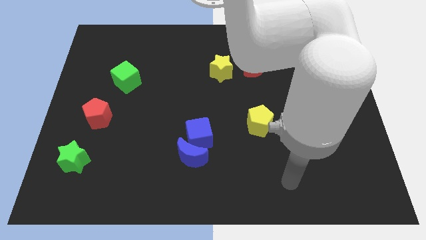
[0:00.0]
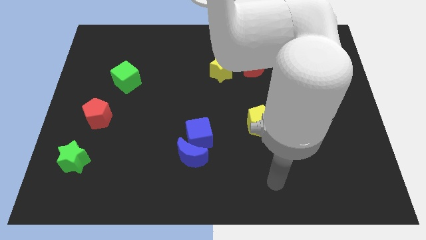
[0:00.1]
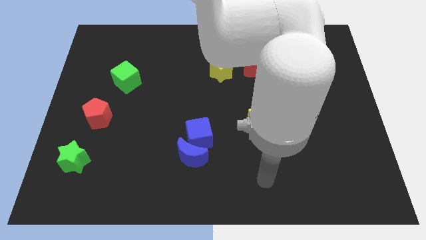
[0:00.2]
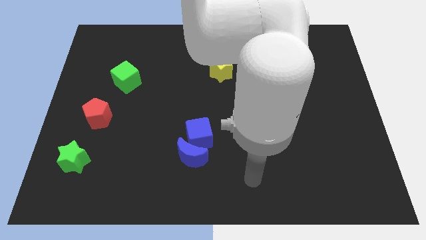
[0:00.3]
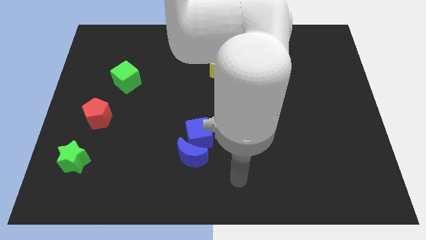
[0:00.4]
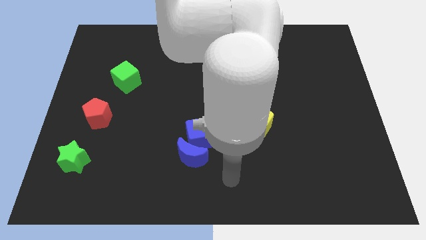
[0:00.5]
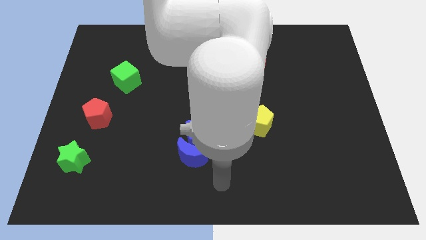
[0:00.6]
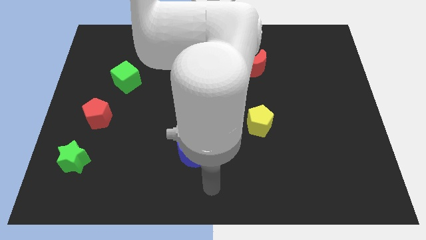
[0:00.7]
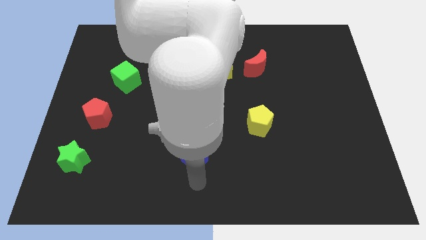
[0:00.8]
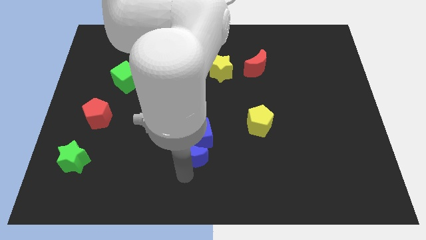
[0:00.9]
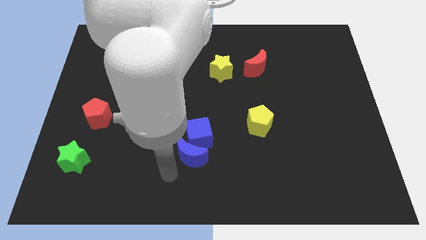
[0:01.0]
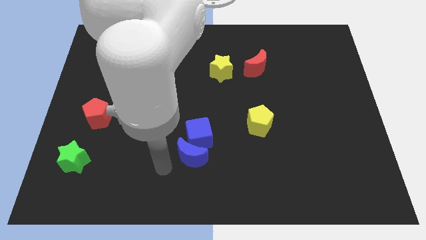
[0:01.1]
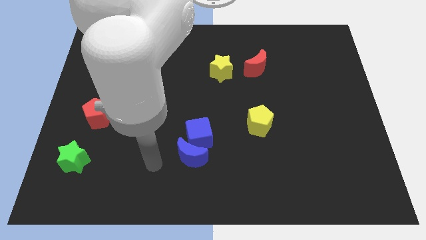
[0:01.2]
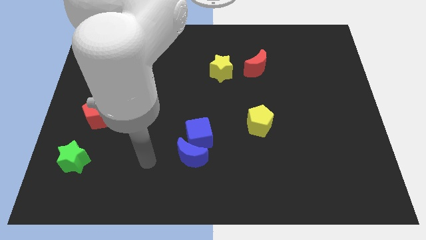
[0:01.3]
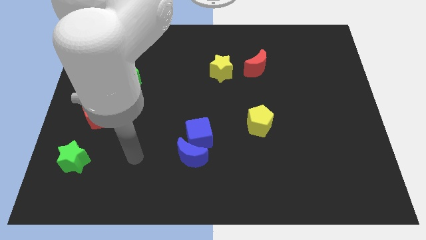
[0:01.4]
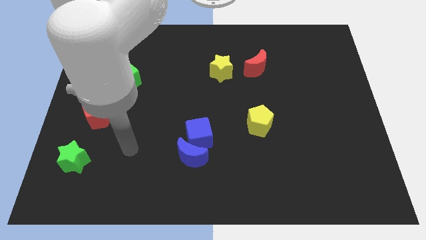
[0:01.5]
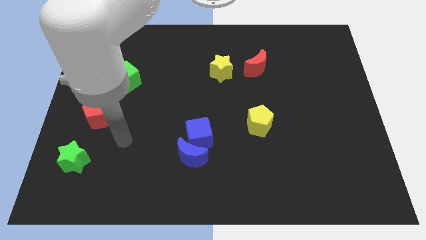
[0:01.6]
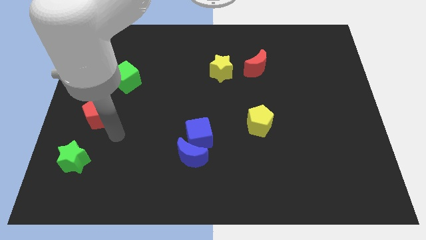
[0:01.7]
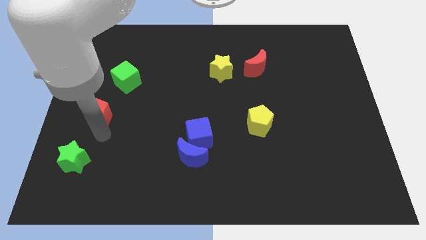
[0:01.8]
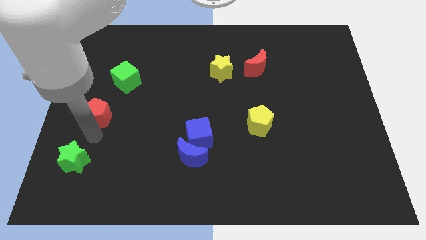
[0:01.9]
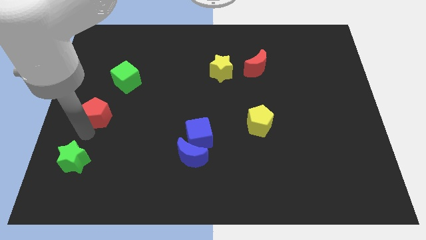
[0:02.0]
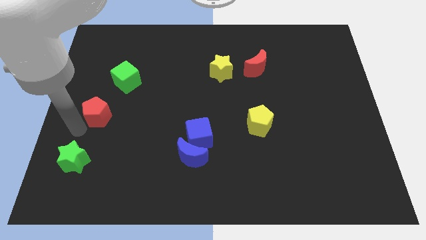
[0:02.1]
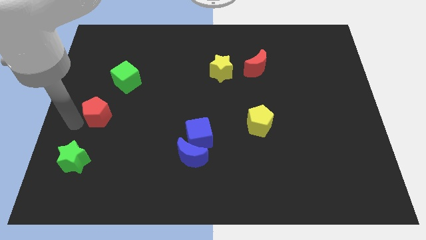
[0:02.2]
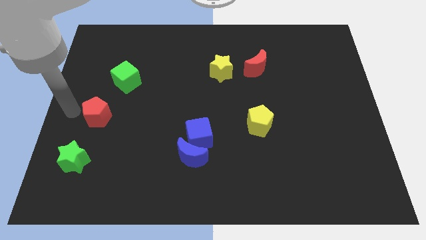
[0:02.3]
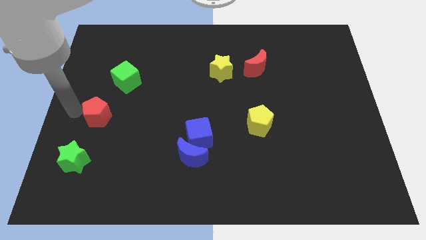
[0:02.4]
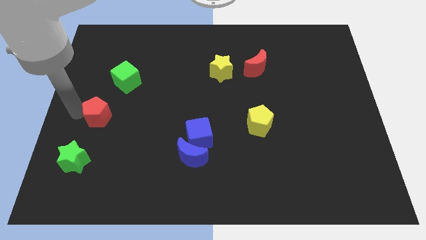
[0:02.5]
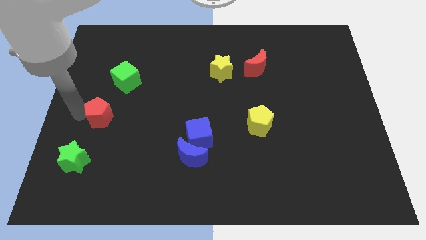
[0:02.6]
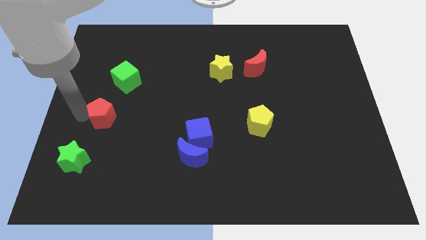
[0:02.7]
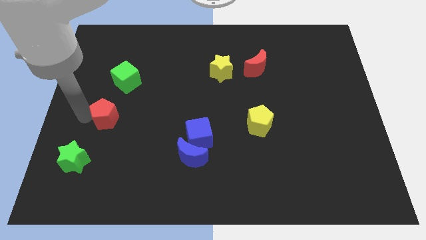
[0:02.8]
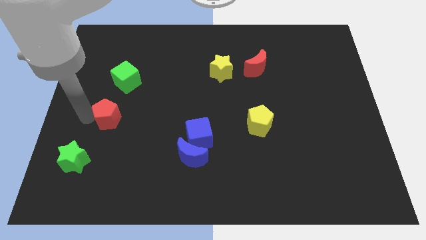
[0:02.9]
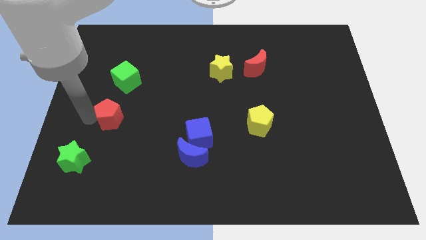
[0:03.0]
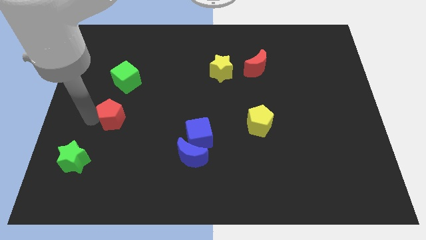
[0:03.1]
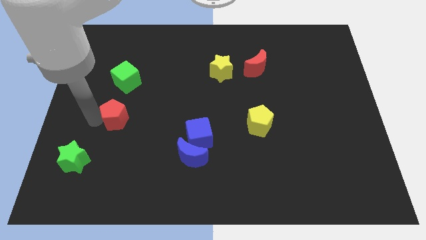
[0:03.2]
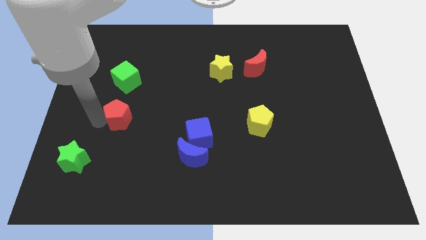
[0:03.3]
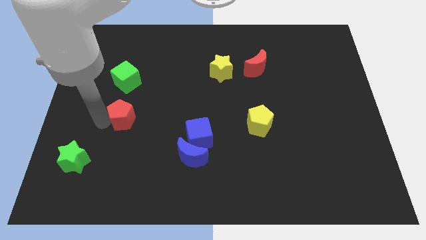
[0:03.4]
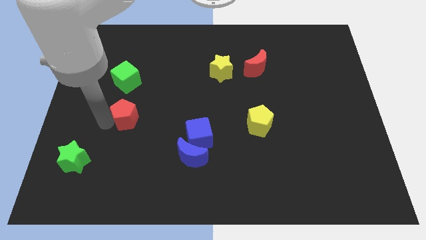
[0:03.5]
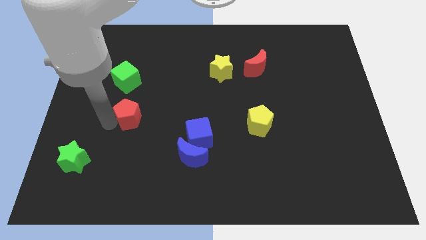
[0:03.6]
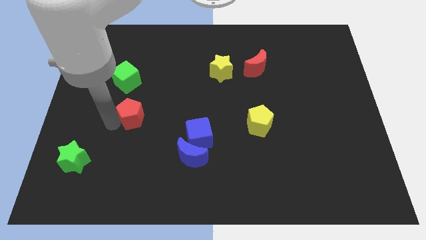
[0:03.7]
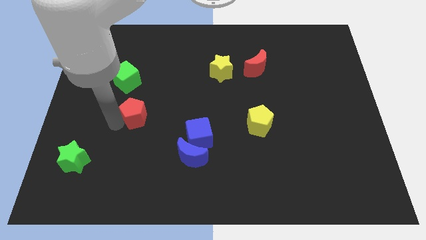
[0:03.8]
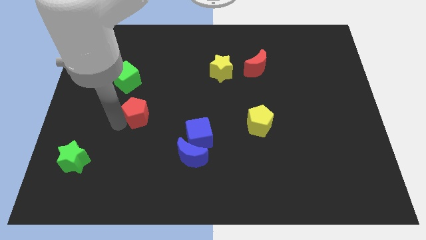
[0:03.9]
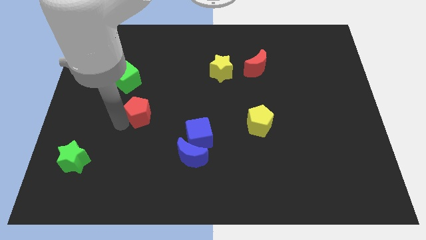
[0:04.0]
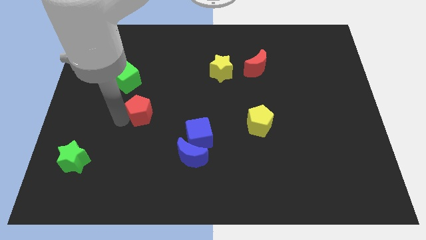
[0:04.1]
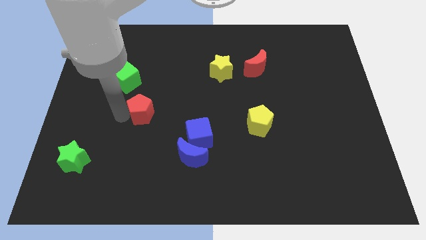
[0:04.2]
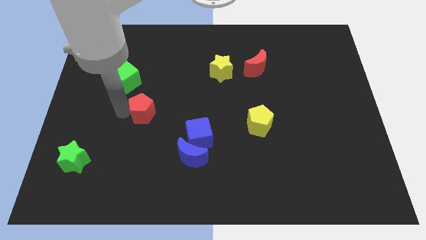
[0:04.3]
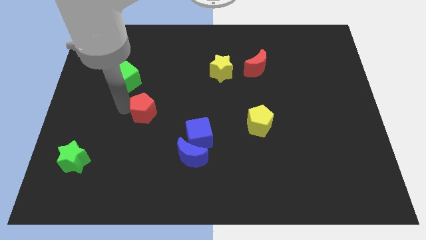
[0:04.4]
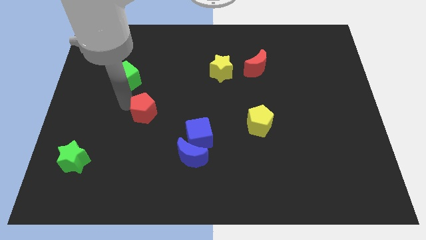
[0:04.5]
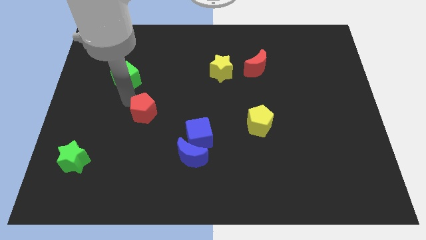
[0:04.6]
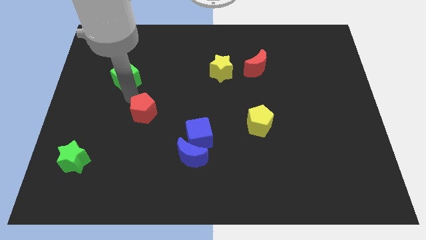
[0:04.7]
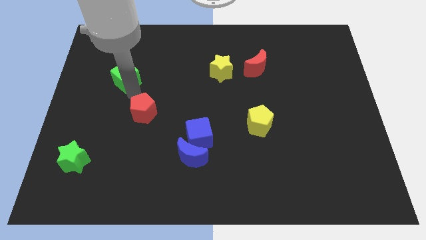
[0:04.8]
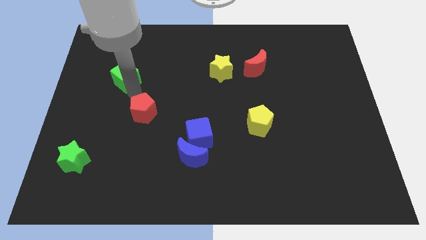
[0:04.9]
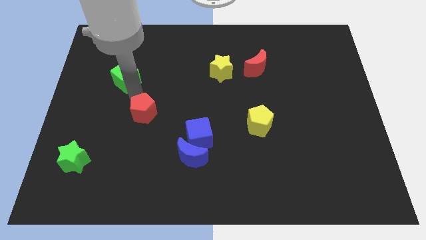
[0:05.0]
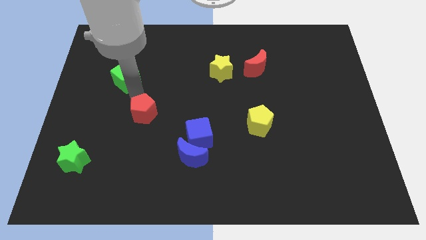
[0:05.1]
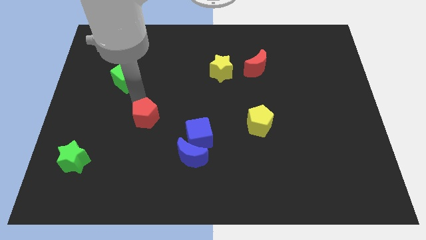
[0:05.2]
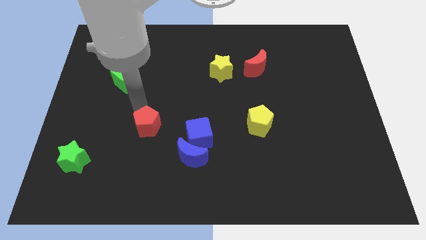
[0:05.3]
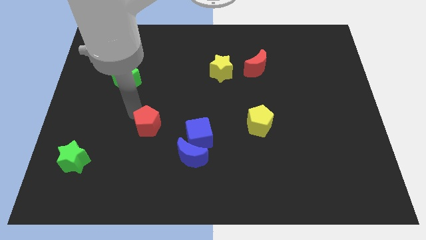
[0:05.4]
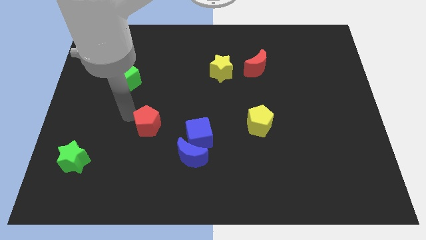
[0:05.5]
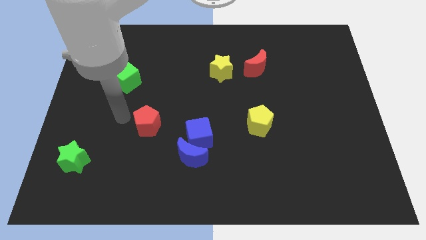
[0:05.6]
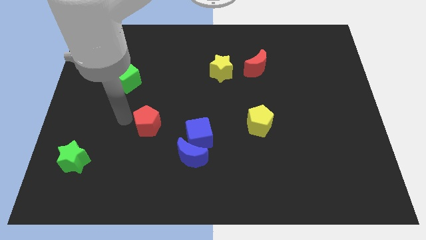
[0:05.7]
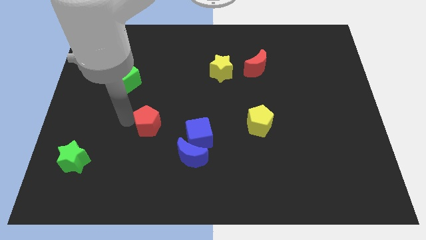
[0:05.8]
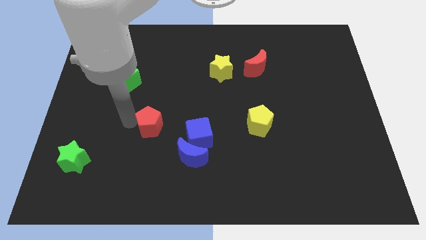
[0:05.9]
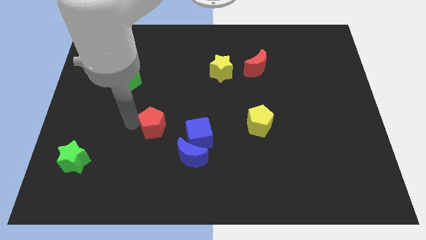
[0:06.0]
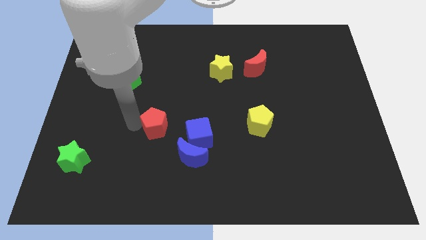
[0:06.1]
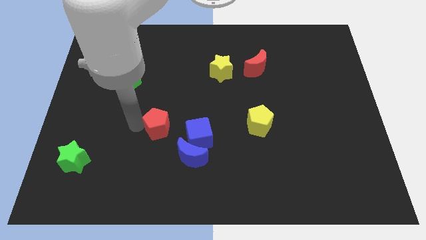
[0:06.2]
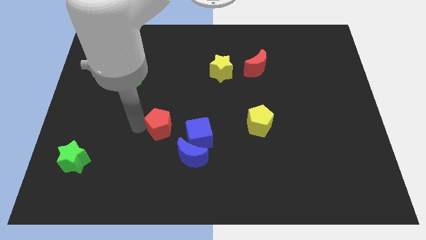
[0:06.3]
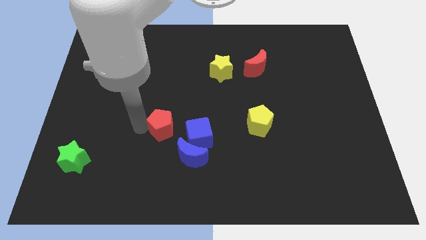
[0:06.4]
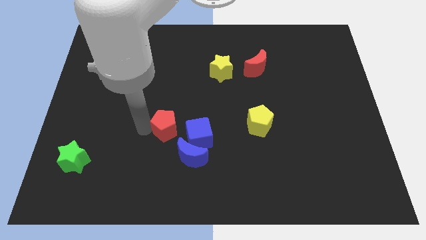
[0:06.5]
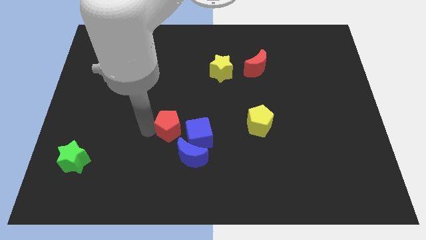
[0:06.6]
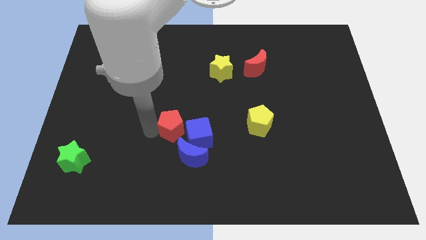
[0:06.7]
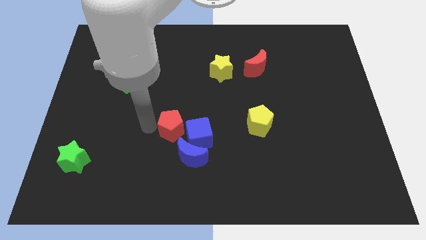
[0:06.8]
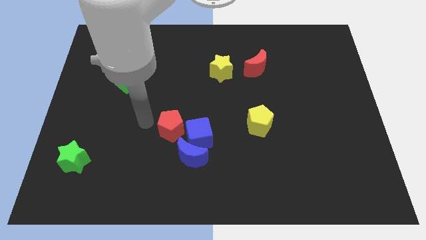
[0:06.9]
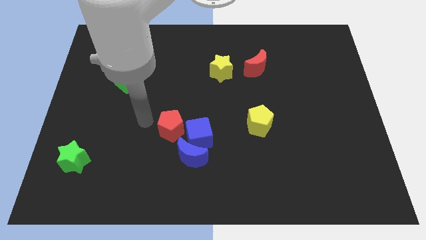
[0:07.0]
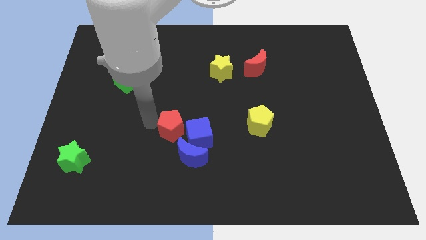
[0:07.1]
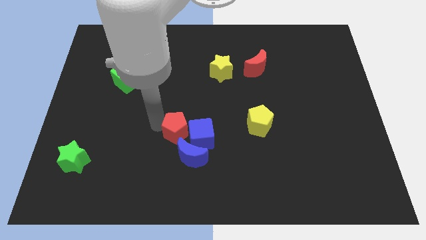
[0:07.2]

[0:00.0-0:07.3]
move the red pentagon next to the blue cube
